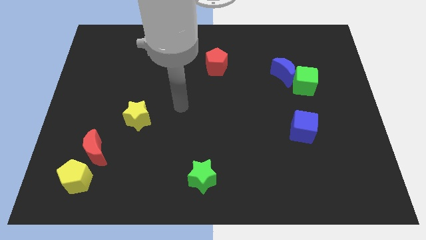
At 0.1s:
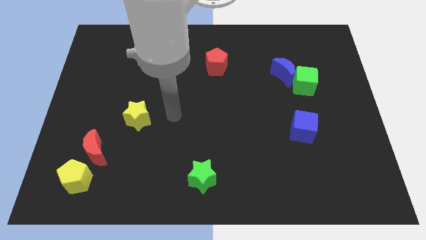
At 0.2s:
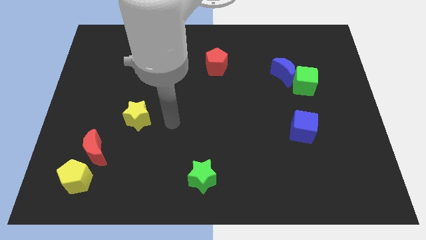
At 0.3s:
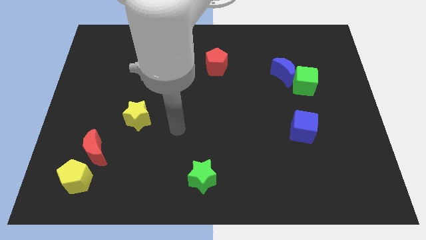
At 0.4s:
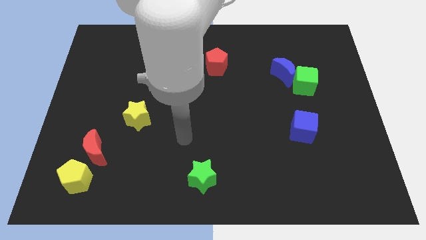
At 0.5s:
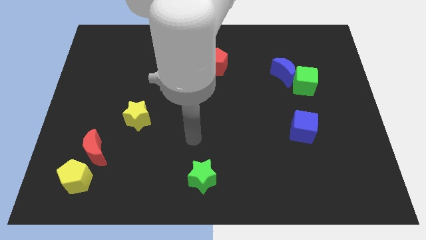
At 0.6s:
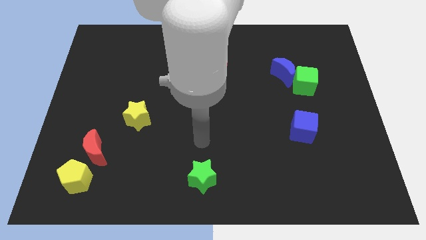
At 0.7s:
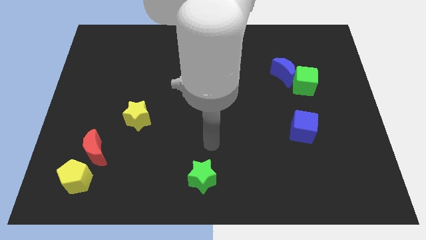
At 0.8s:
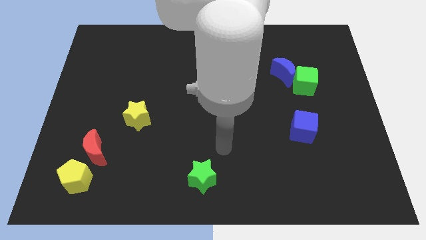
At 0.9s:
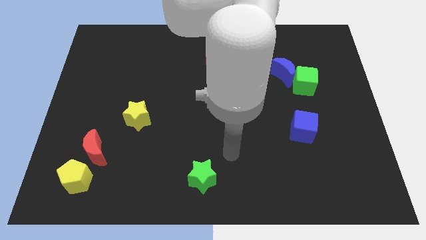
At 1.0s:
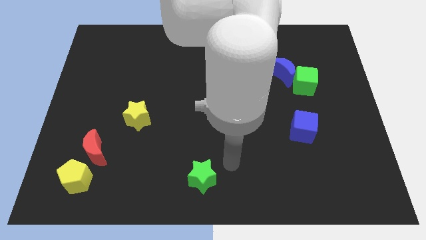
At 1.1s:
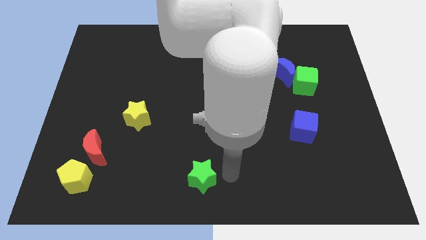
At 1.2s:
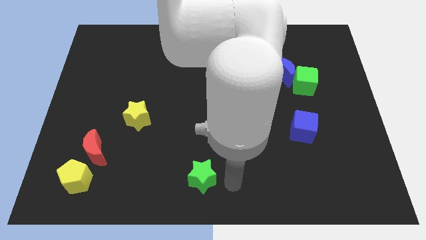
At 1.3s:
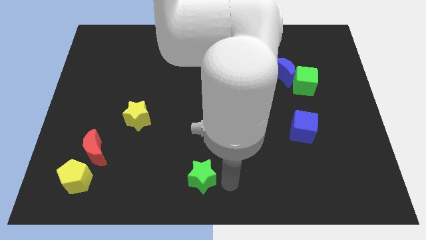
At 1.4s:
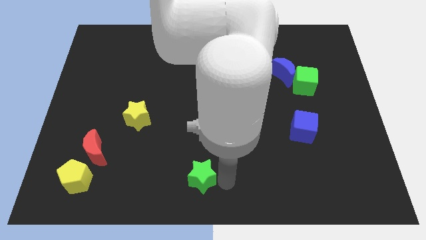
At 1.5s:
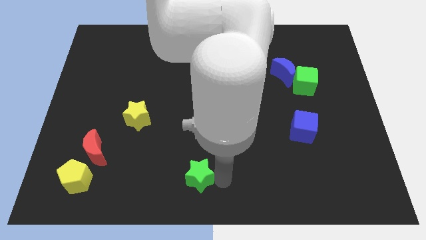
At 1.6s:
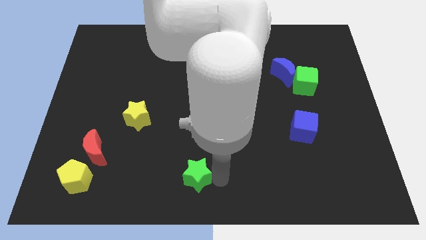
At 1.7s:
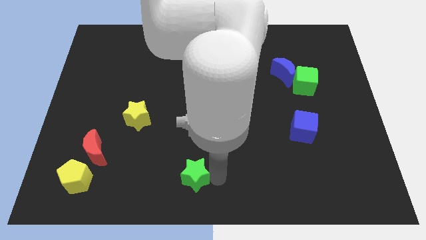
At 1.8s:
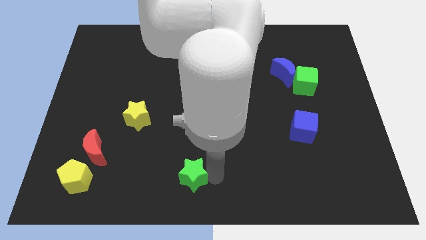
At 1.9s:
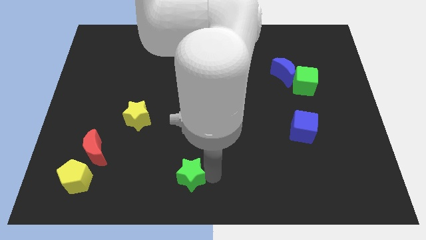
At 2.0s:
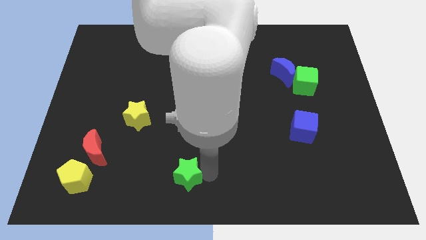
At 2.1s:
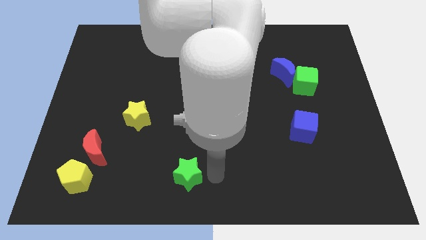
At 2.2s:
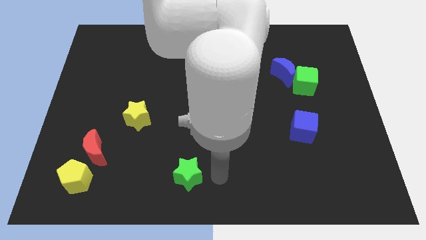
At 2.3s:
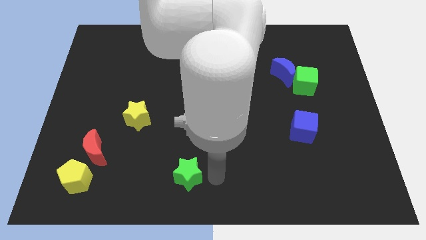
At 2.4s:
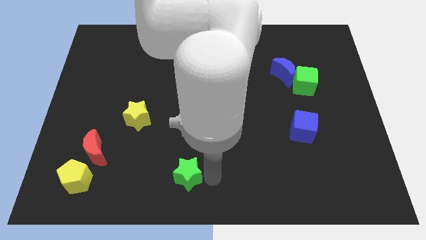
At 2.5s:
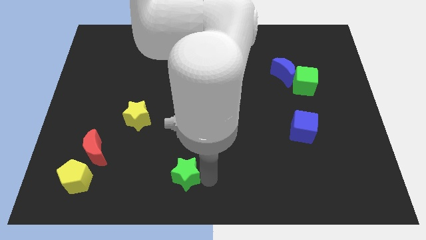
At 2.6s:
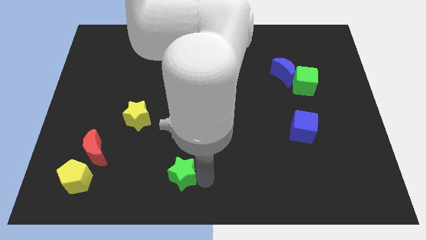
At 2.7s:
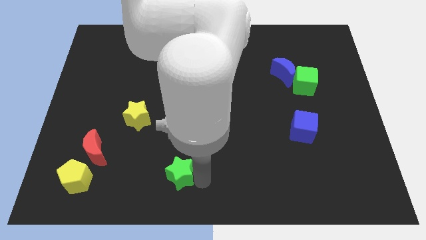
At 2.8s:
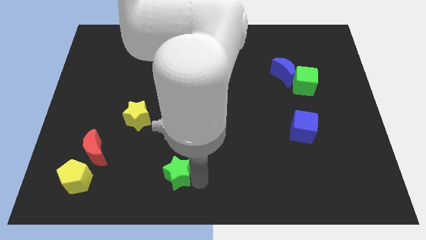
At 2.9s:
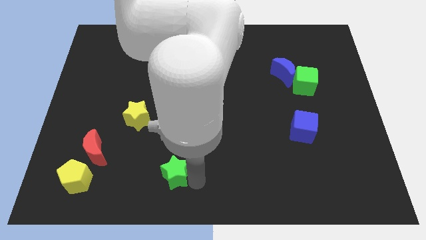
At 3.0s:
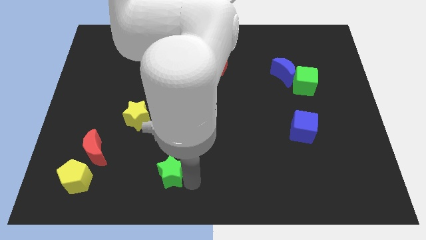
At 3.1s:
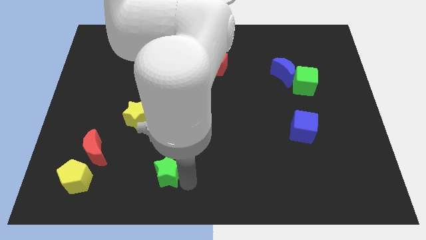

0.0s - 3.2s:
slightly slide the green star to the left

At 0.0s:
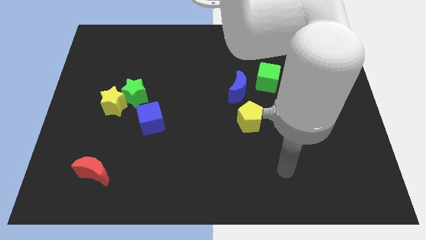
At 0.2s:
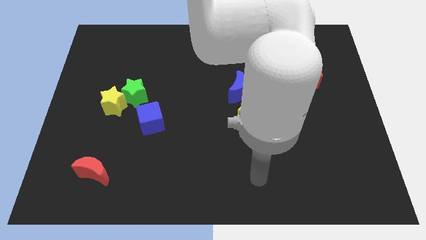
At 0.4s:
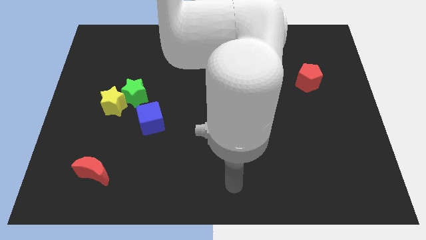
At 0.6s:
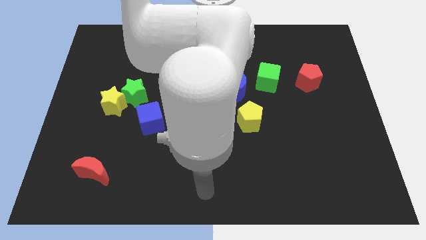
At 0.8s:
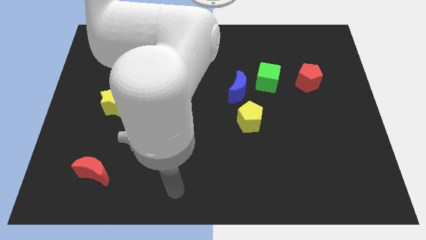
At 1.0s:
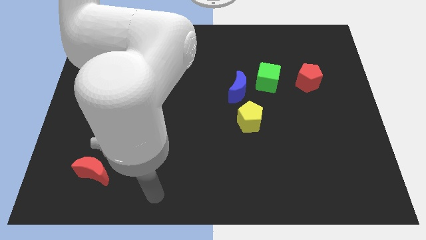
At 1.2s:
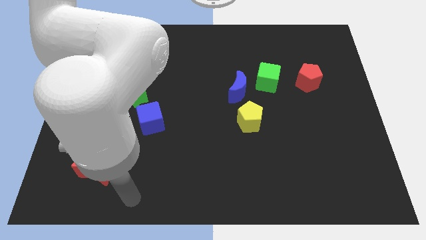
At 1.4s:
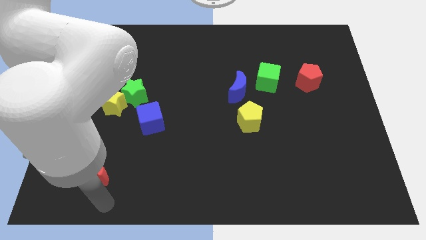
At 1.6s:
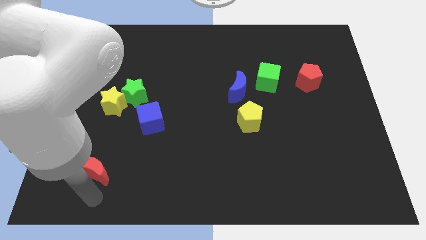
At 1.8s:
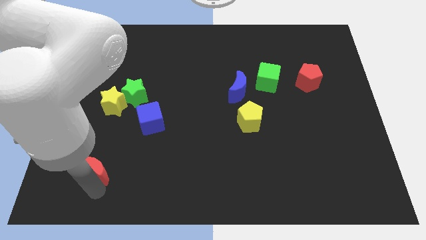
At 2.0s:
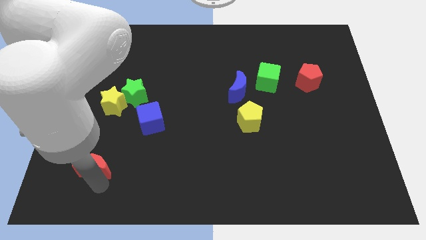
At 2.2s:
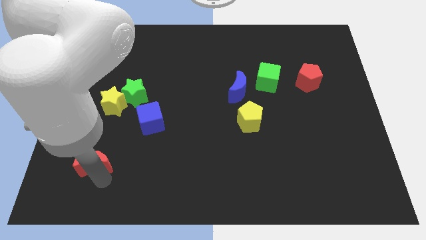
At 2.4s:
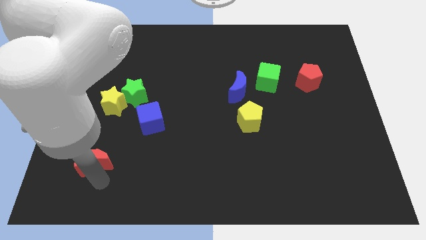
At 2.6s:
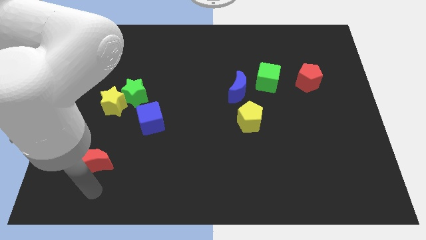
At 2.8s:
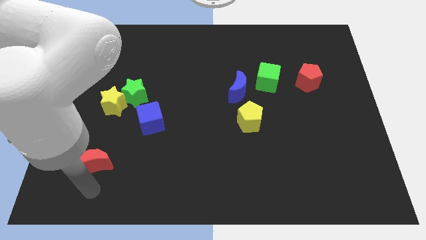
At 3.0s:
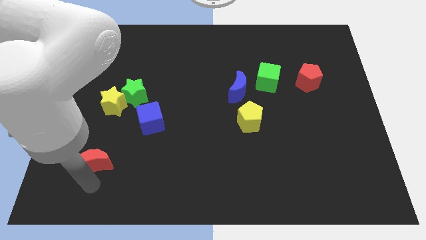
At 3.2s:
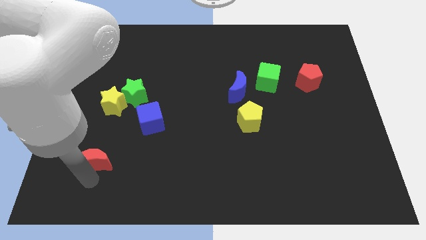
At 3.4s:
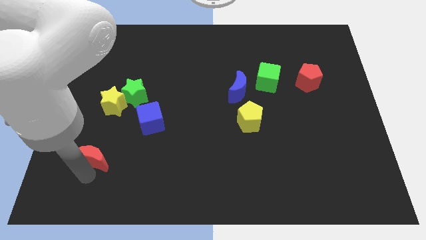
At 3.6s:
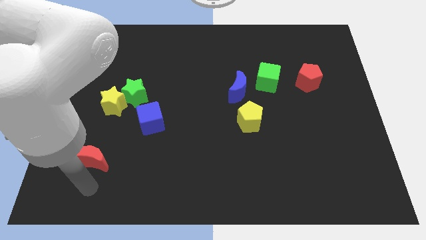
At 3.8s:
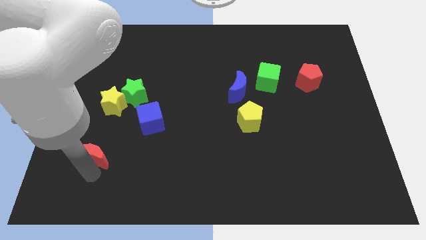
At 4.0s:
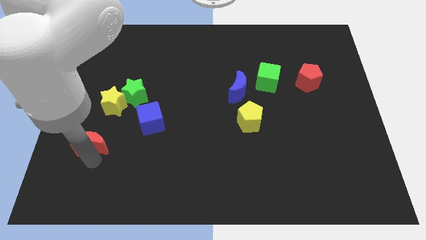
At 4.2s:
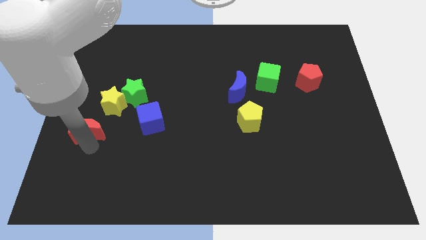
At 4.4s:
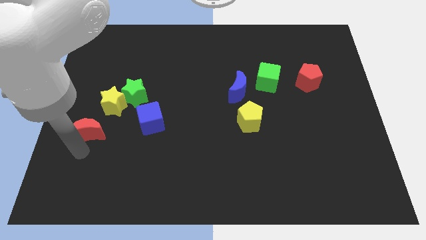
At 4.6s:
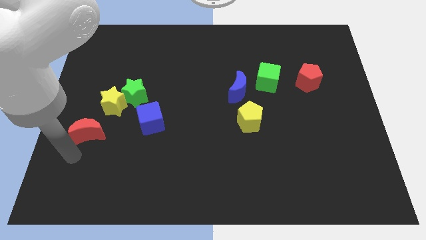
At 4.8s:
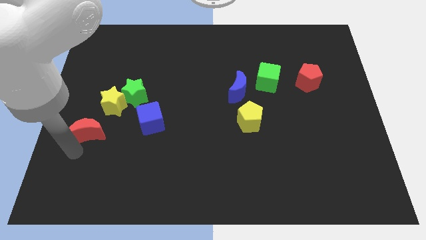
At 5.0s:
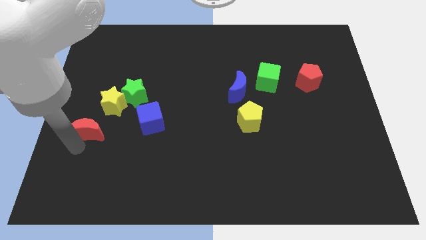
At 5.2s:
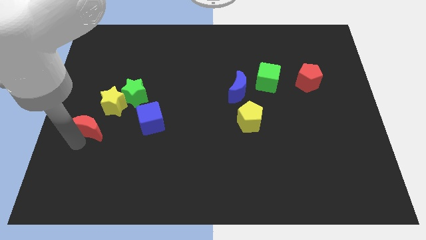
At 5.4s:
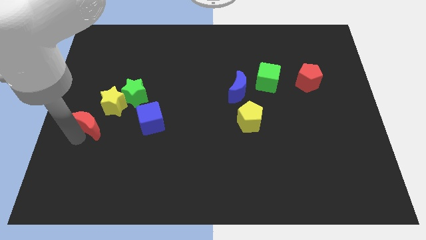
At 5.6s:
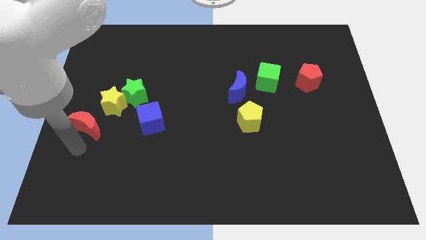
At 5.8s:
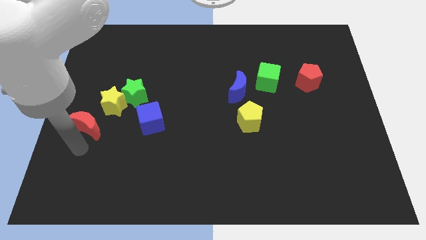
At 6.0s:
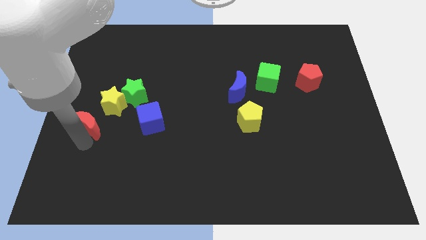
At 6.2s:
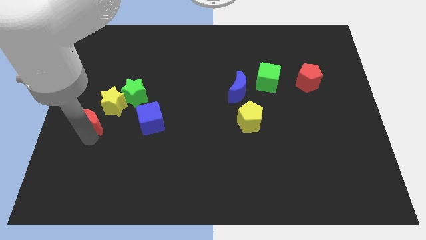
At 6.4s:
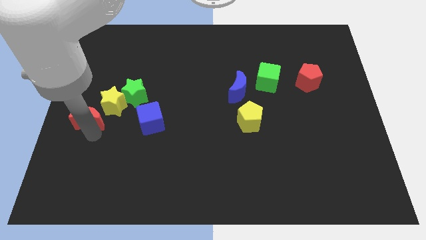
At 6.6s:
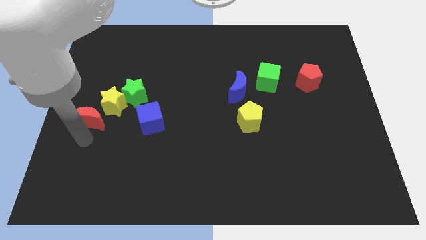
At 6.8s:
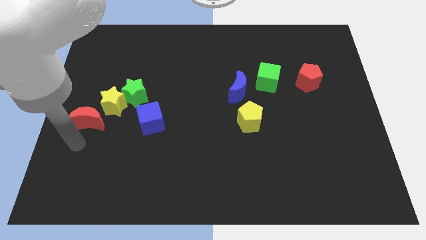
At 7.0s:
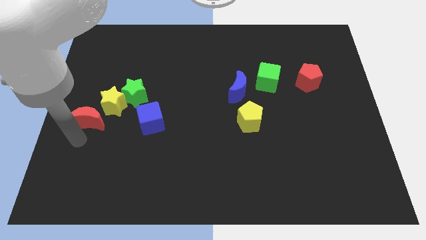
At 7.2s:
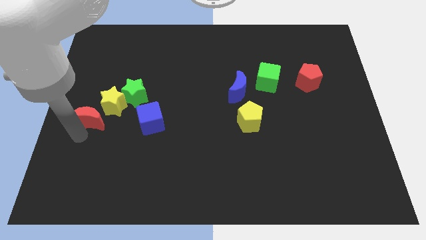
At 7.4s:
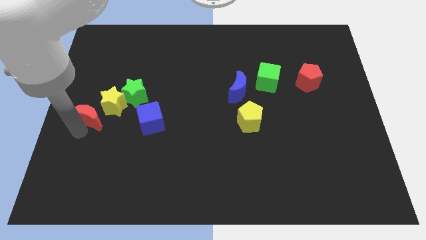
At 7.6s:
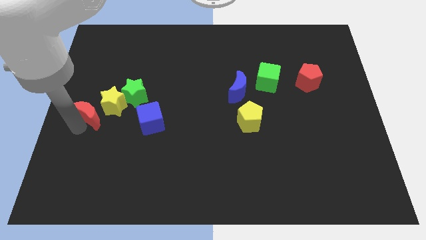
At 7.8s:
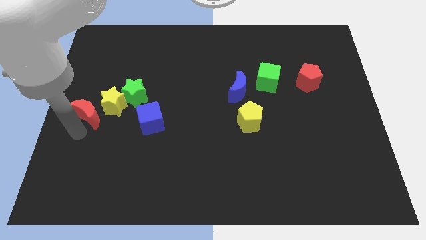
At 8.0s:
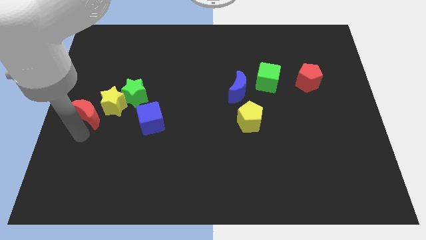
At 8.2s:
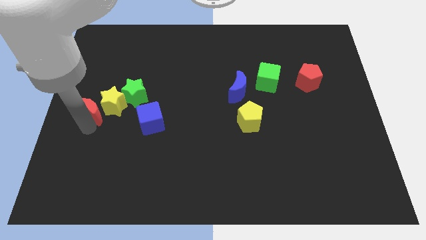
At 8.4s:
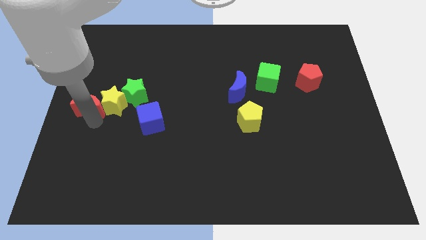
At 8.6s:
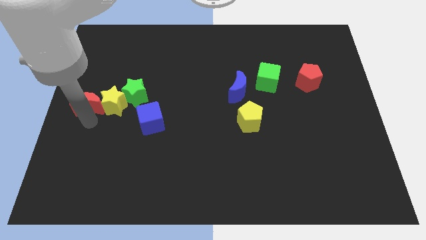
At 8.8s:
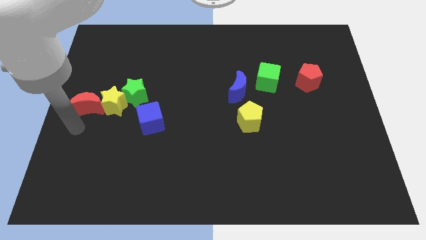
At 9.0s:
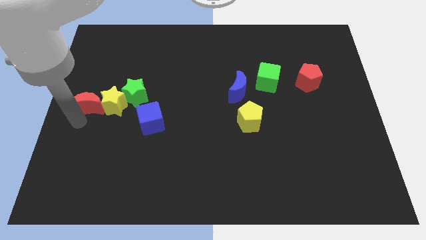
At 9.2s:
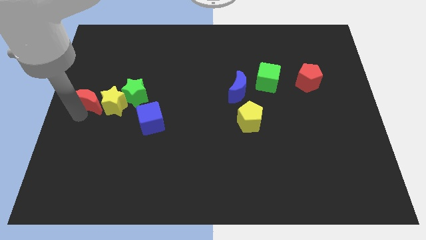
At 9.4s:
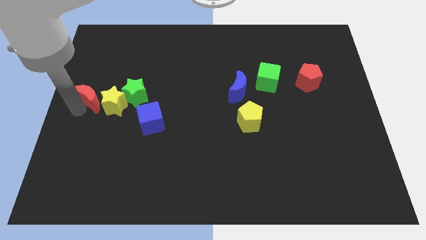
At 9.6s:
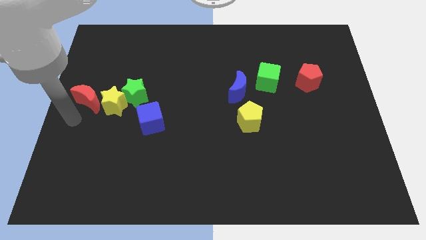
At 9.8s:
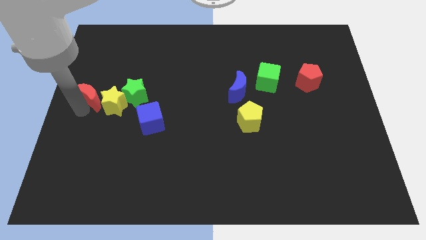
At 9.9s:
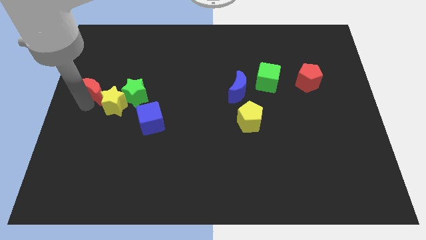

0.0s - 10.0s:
push the red moon upwards
